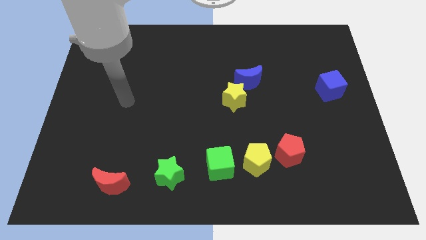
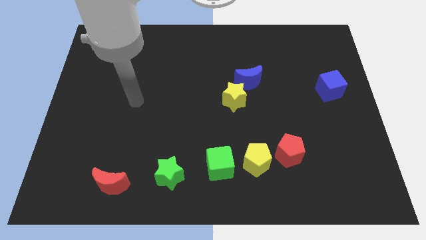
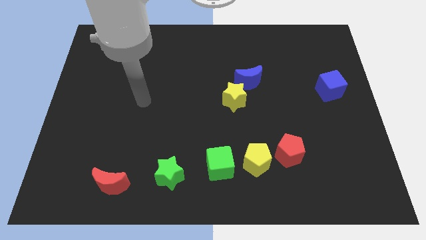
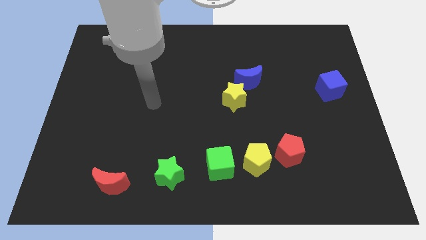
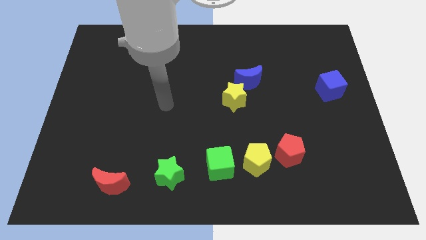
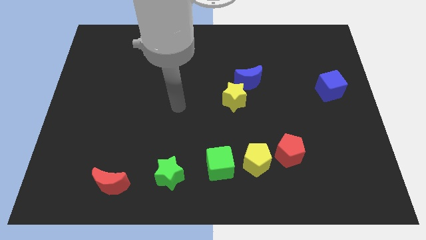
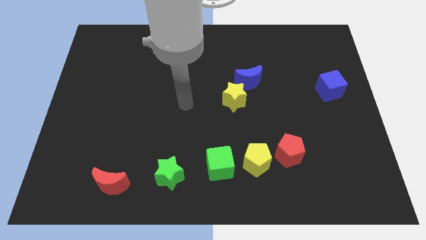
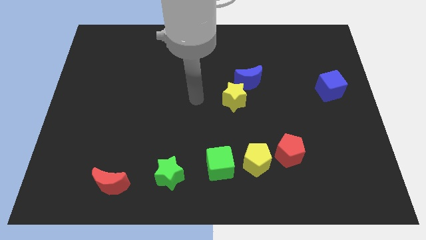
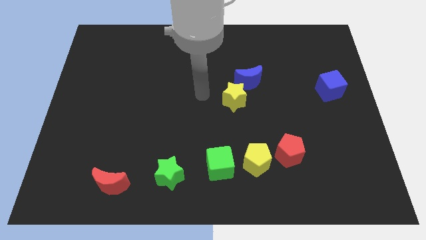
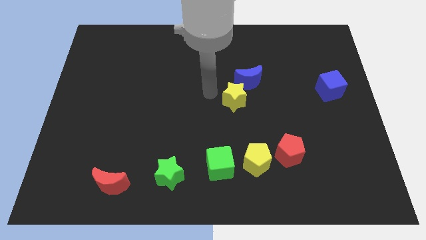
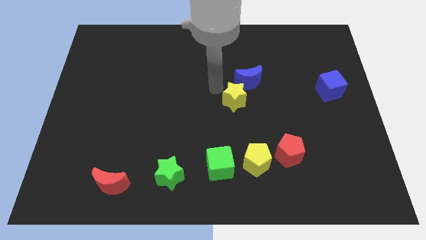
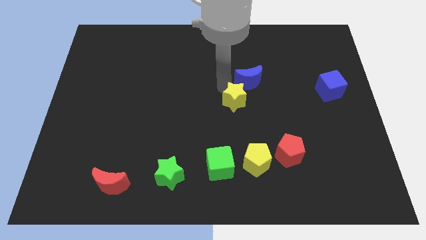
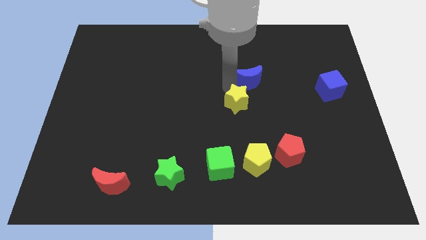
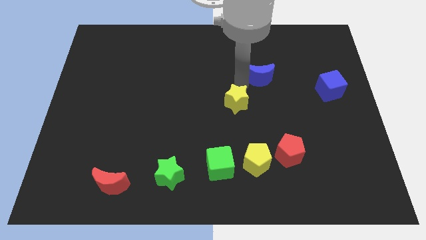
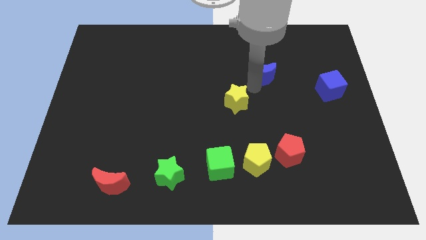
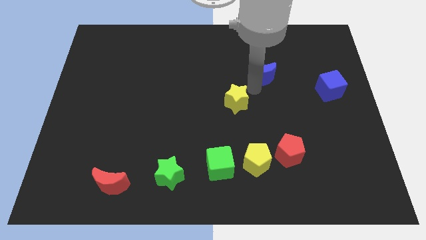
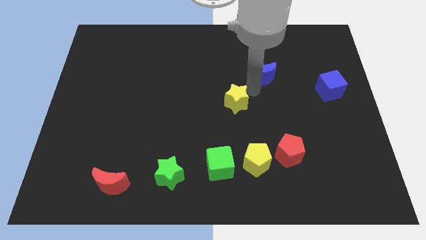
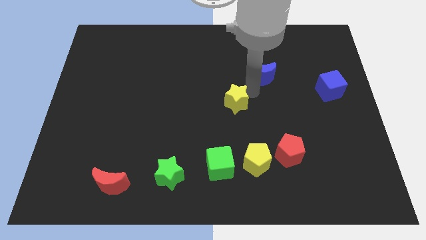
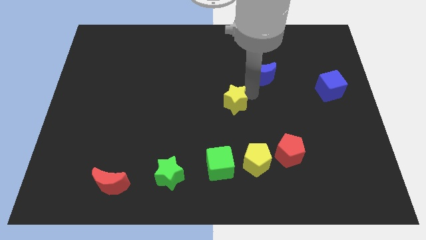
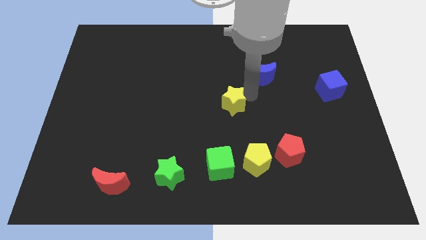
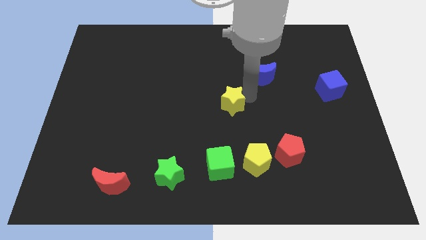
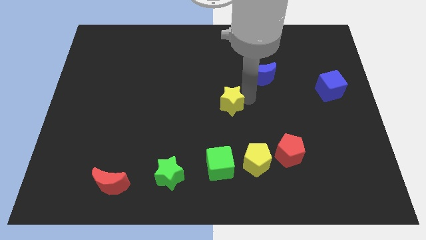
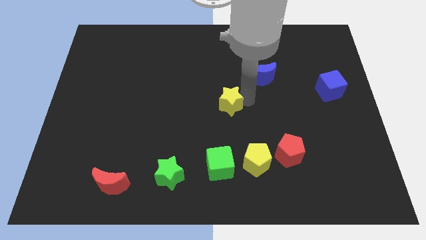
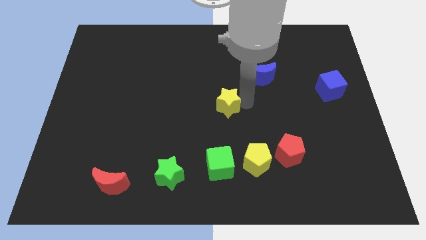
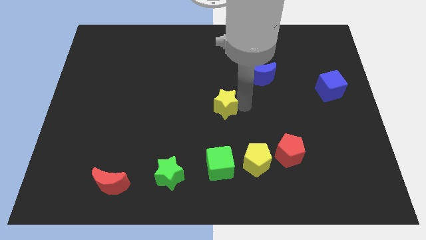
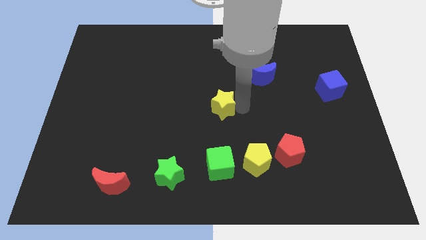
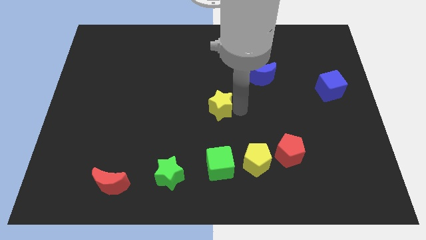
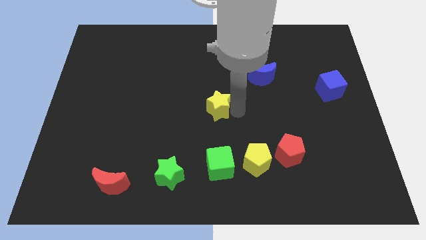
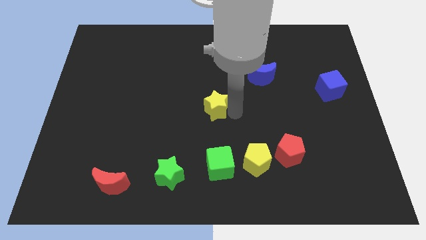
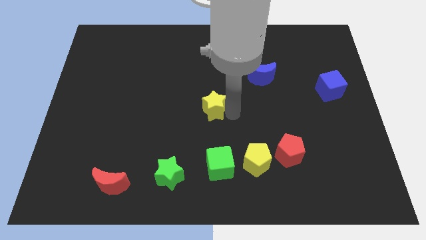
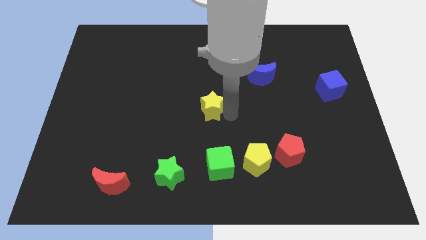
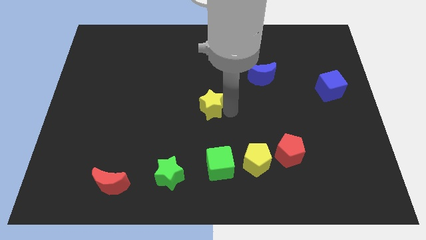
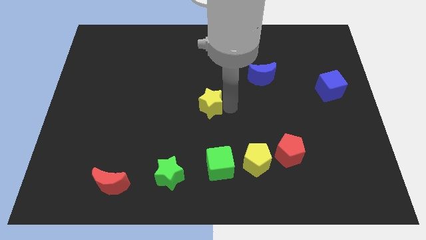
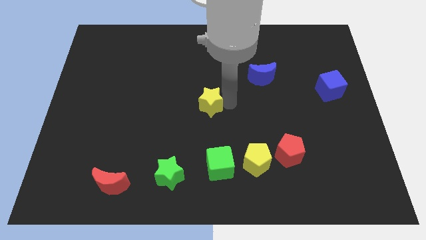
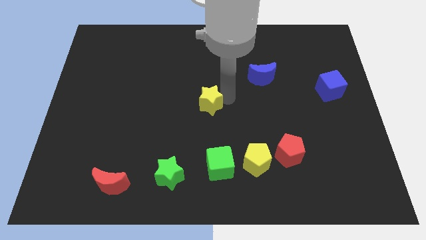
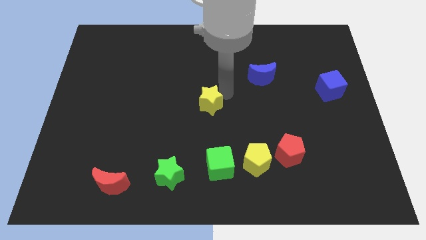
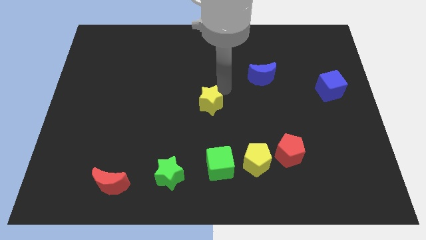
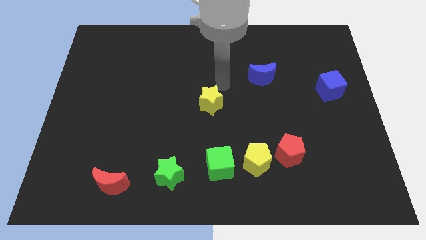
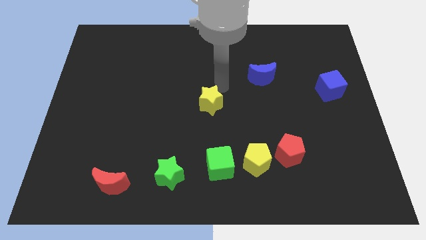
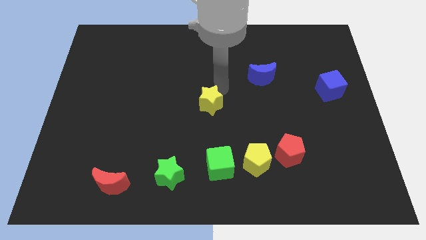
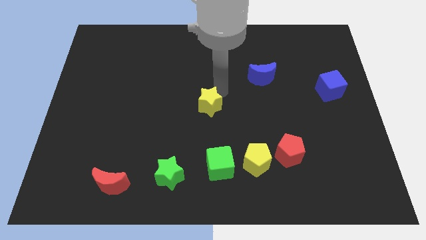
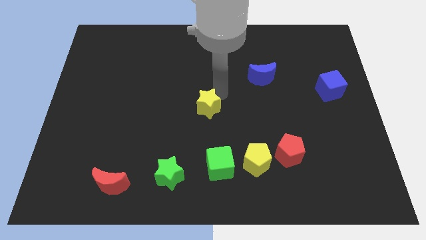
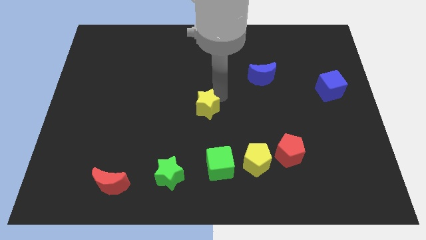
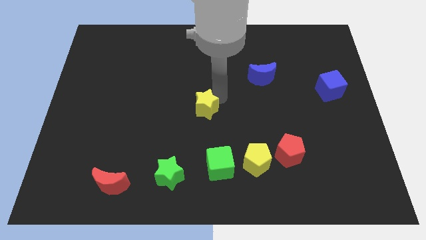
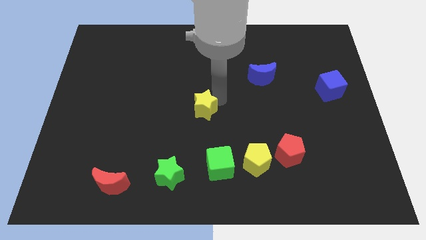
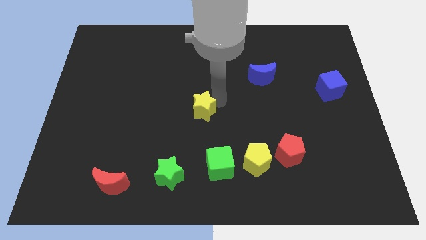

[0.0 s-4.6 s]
move the yellow star a little down and left diagonally

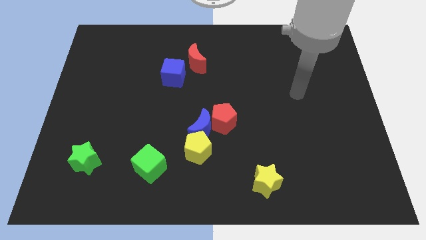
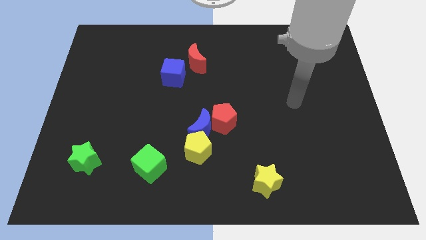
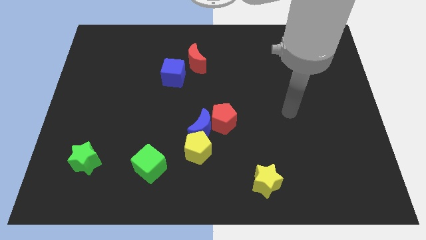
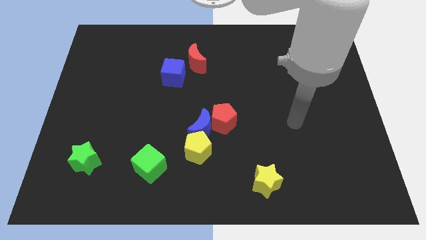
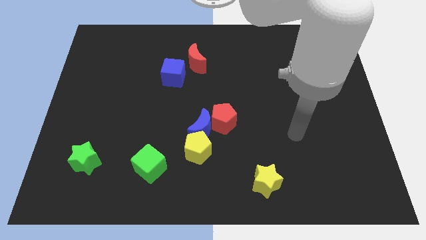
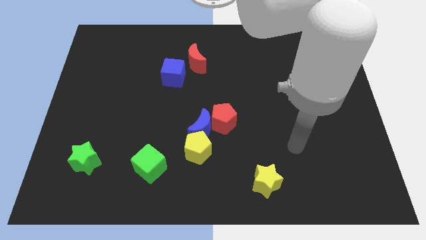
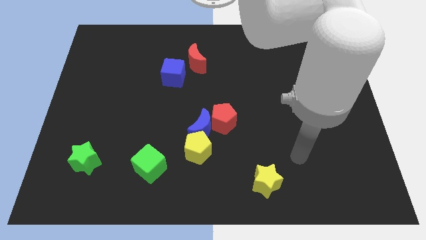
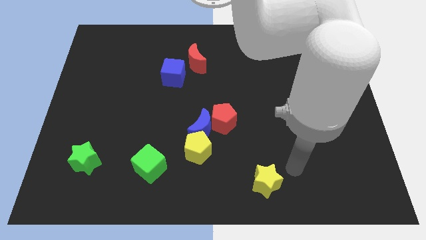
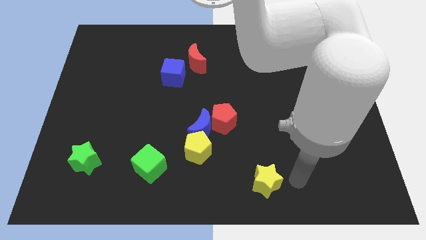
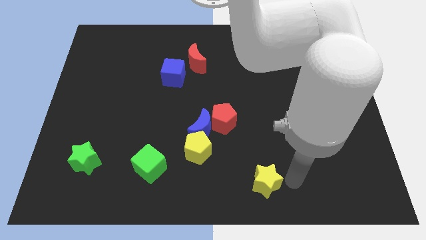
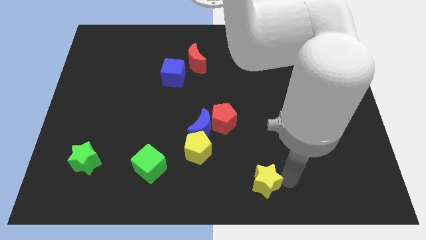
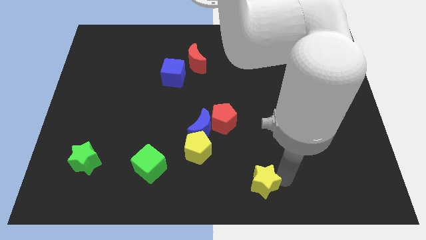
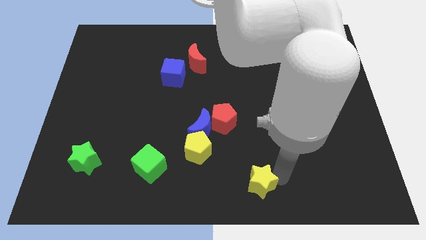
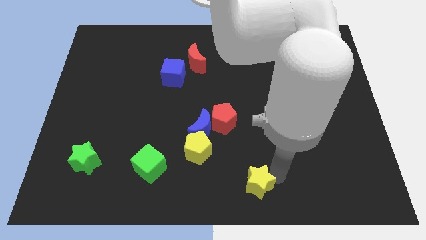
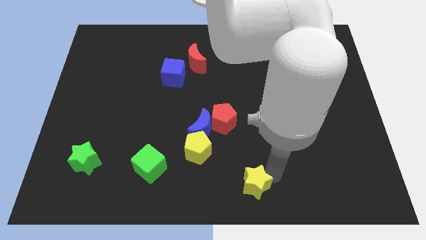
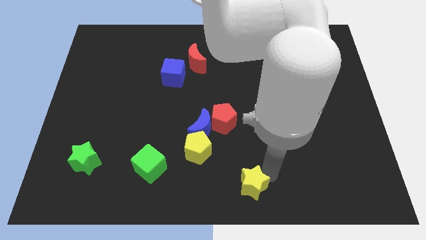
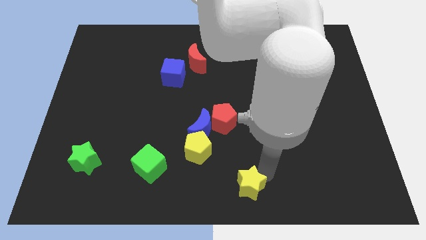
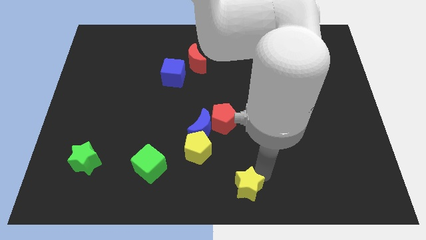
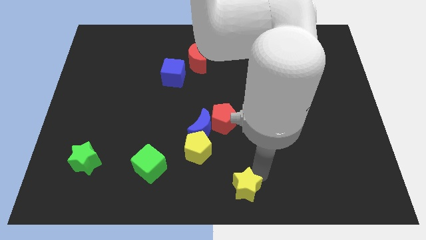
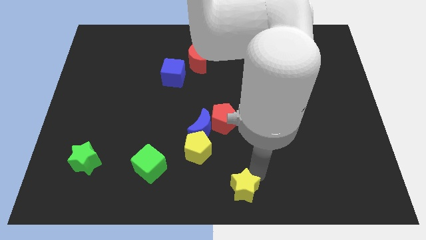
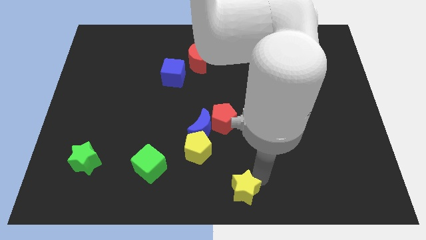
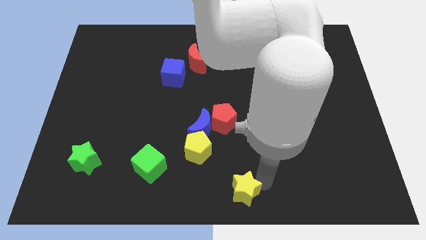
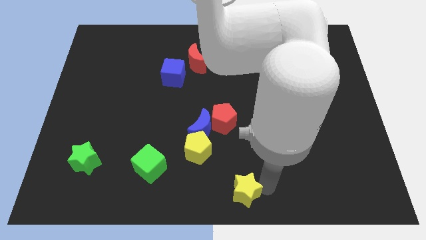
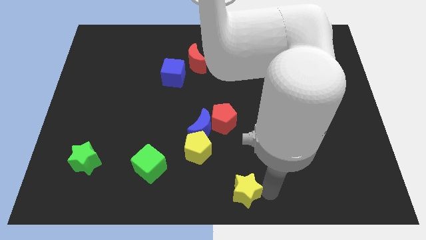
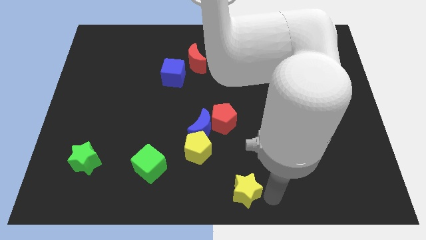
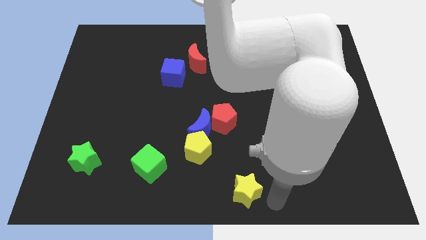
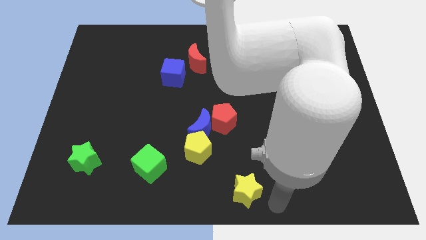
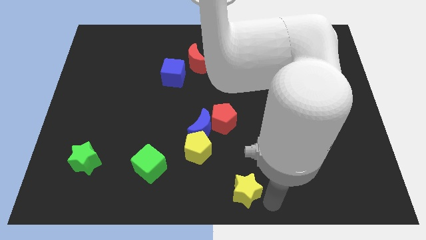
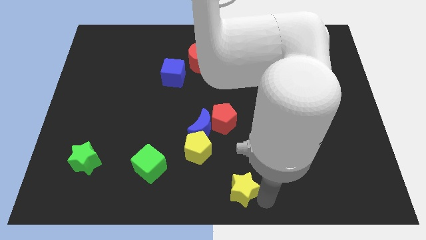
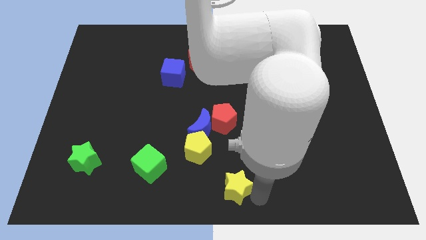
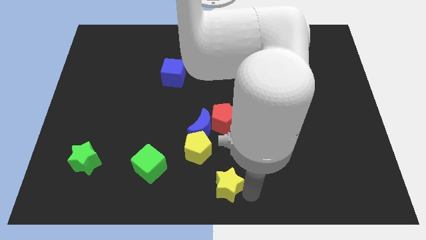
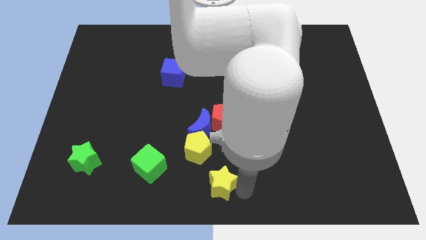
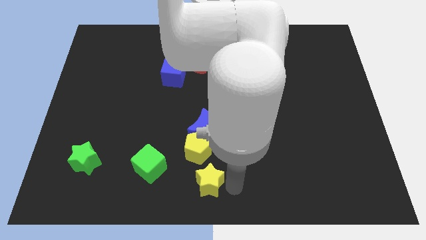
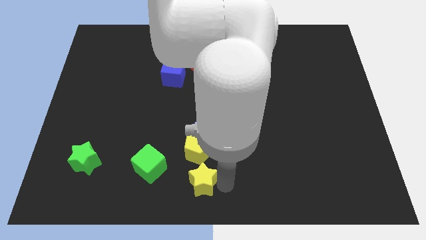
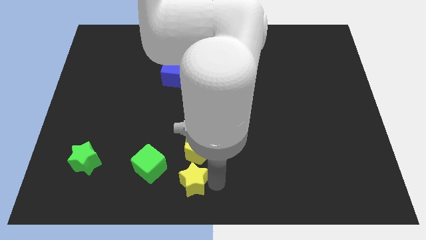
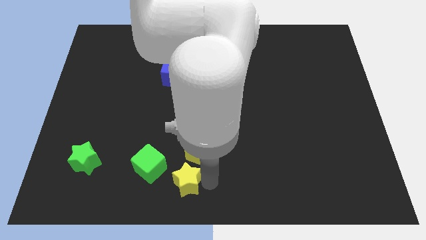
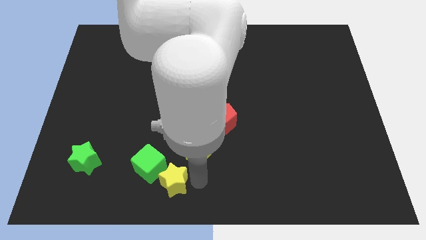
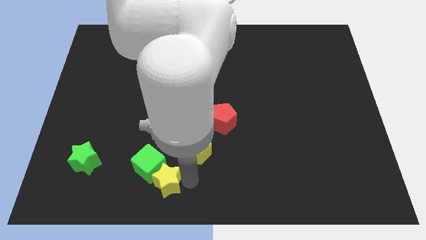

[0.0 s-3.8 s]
move the yellow star to the left
